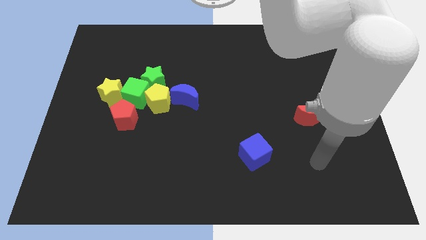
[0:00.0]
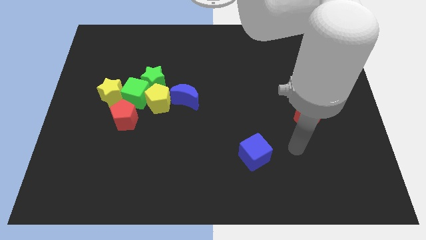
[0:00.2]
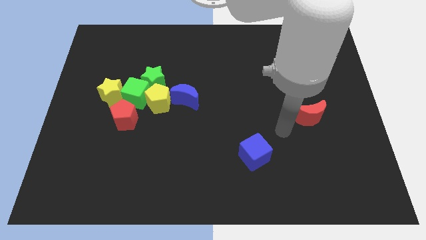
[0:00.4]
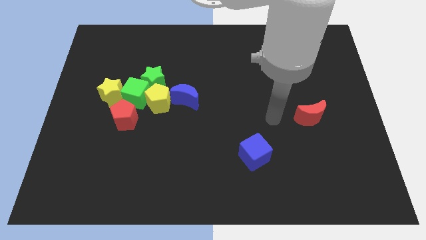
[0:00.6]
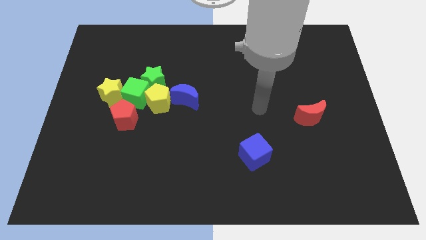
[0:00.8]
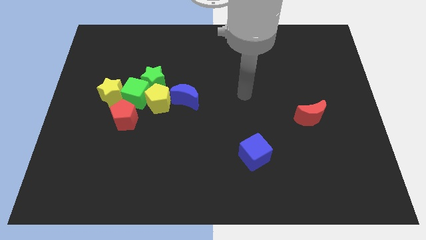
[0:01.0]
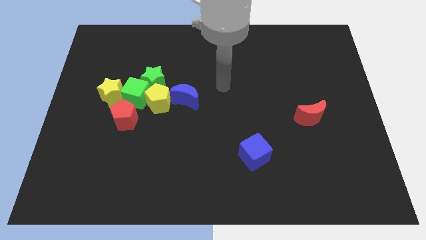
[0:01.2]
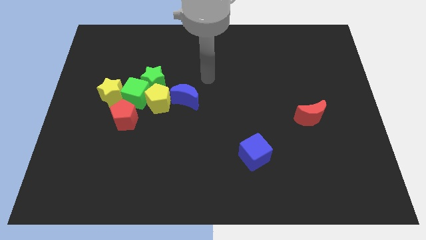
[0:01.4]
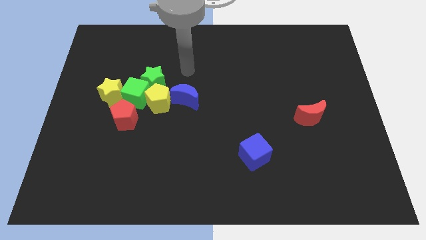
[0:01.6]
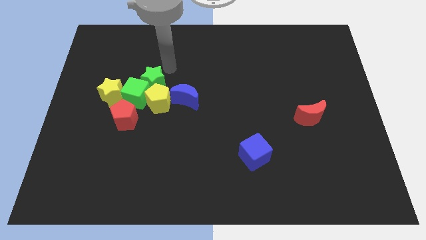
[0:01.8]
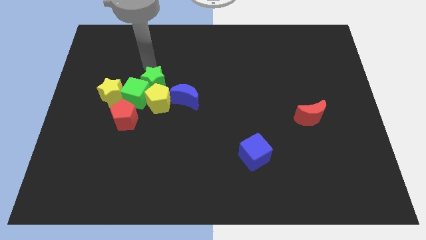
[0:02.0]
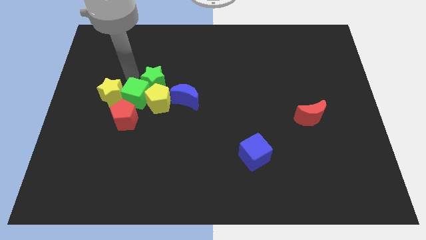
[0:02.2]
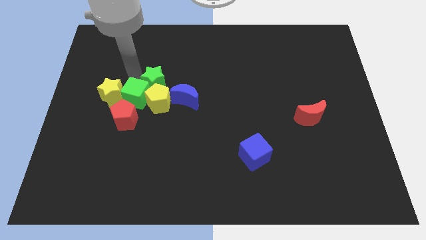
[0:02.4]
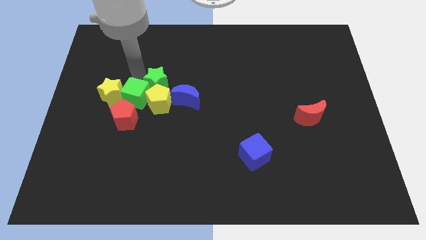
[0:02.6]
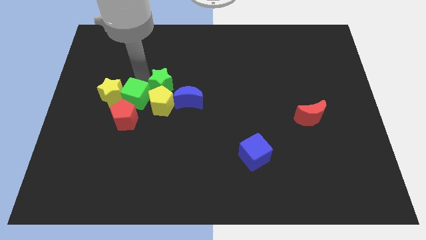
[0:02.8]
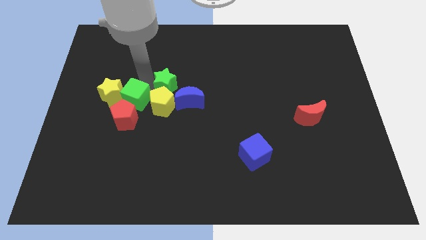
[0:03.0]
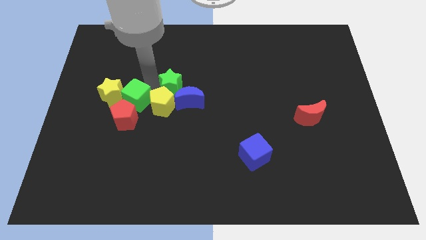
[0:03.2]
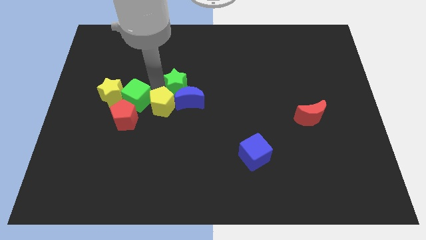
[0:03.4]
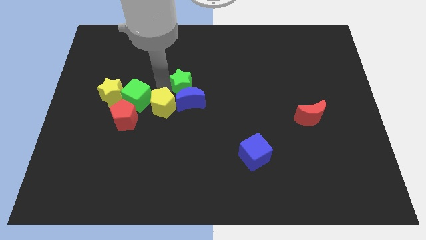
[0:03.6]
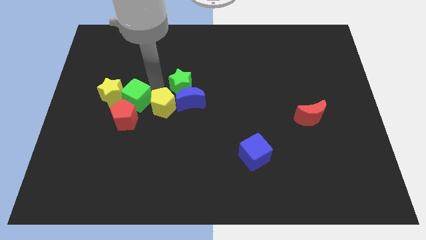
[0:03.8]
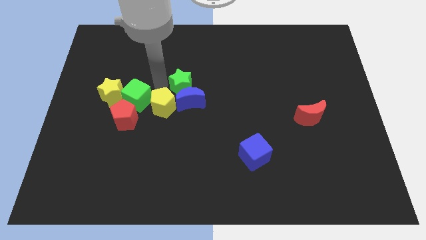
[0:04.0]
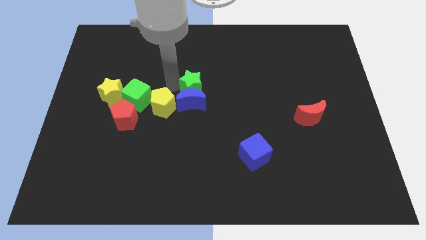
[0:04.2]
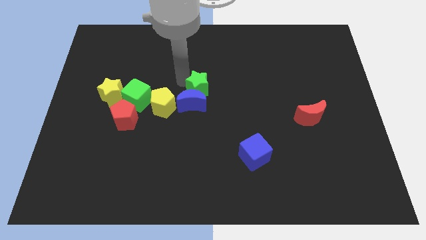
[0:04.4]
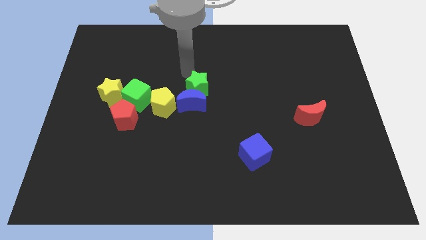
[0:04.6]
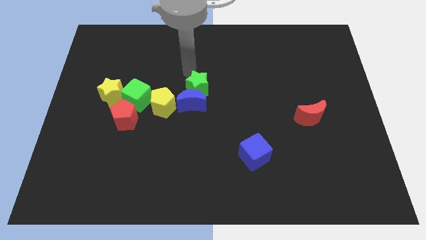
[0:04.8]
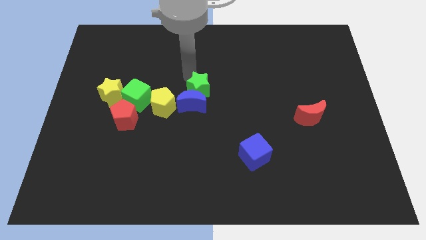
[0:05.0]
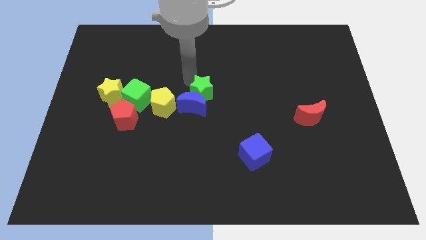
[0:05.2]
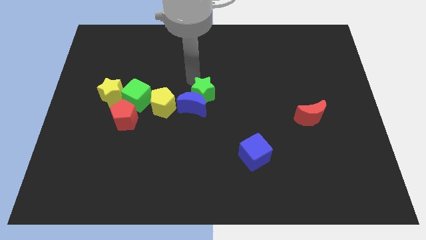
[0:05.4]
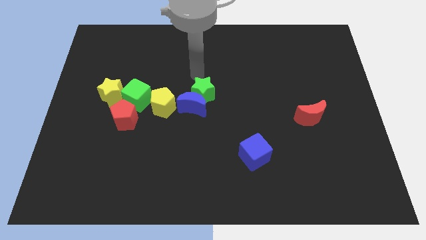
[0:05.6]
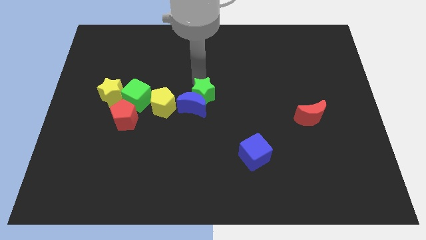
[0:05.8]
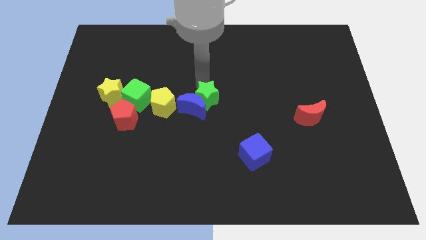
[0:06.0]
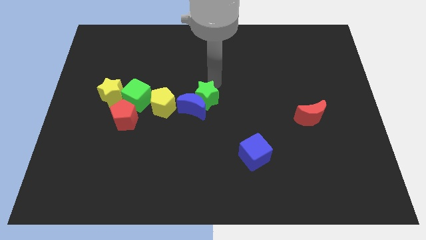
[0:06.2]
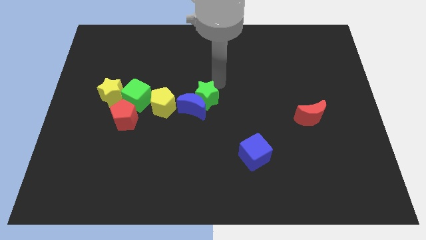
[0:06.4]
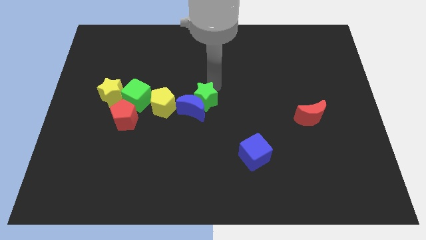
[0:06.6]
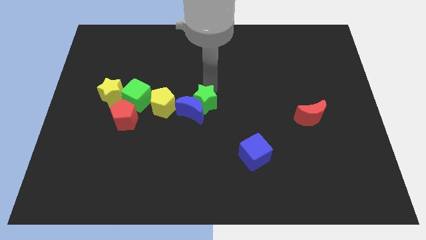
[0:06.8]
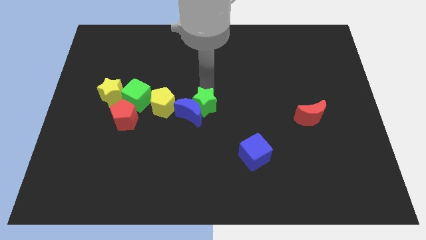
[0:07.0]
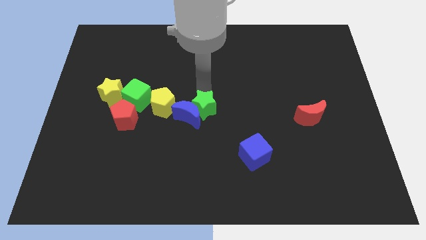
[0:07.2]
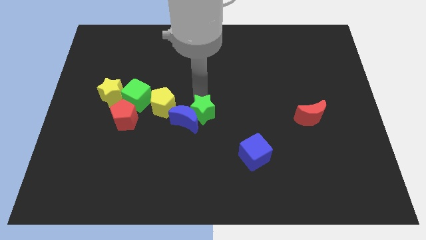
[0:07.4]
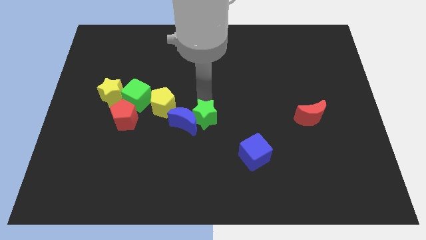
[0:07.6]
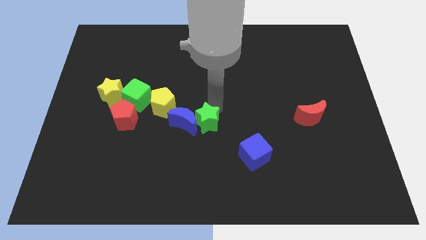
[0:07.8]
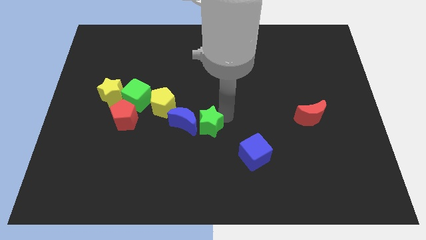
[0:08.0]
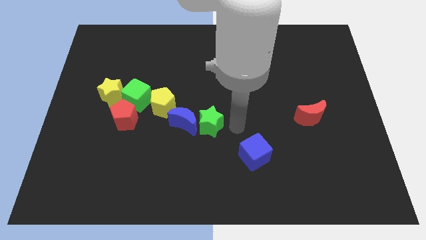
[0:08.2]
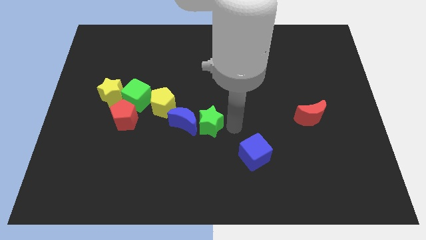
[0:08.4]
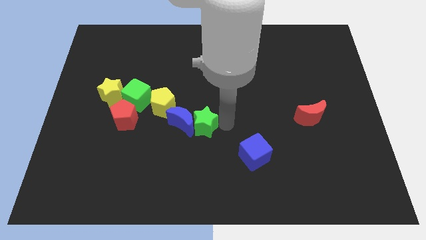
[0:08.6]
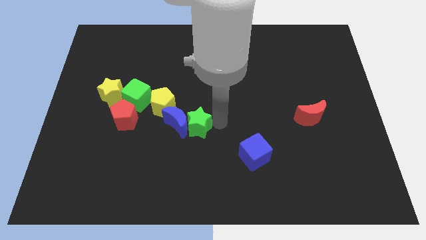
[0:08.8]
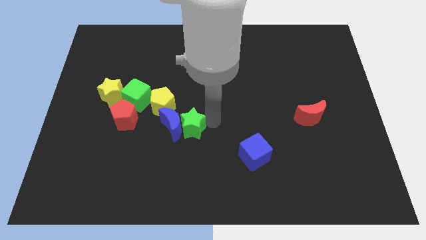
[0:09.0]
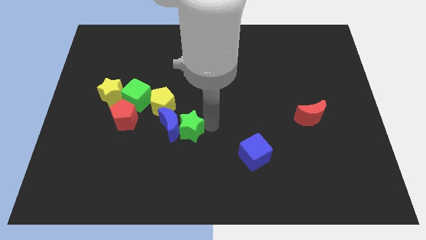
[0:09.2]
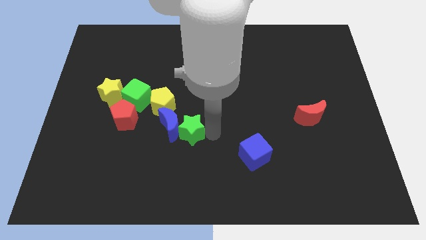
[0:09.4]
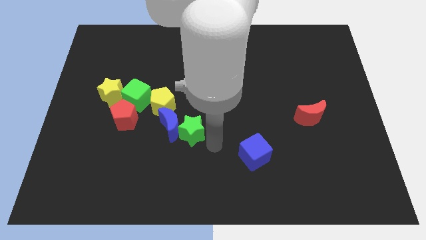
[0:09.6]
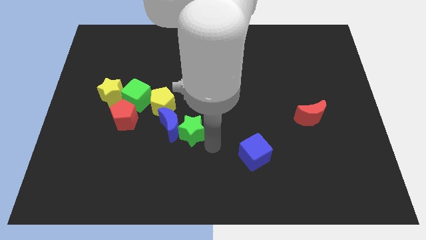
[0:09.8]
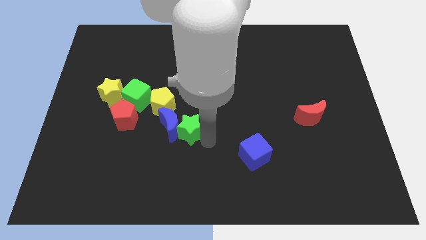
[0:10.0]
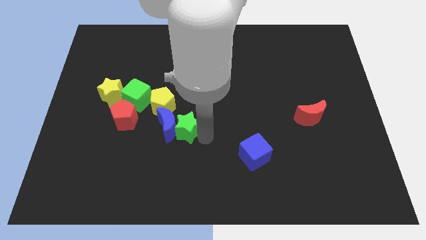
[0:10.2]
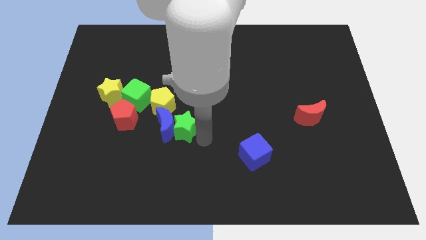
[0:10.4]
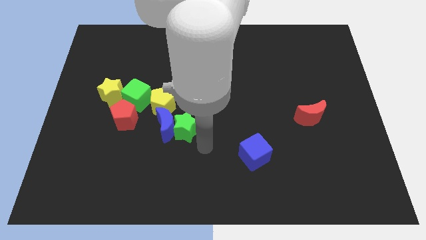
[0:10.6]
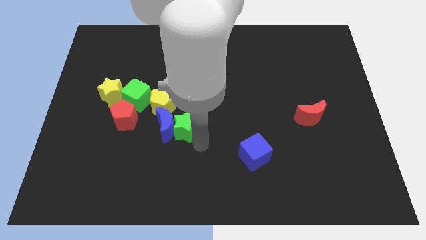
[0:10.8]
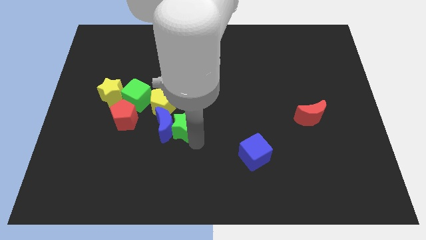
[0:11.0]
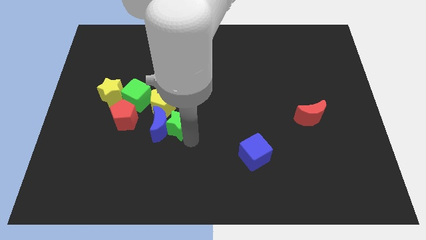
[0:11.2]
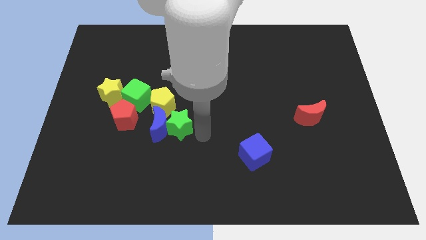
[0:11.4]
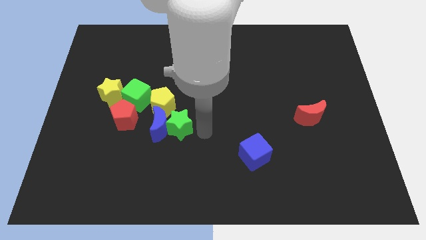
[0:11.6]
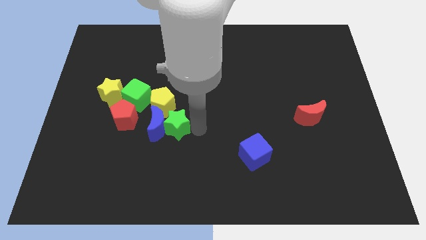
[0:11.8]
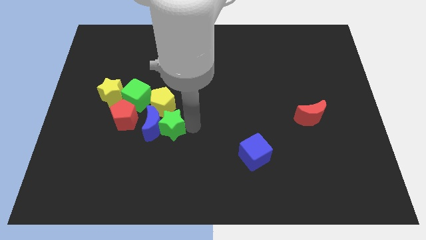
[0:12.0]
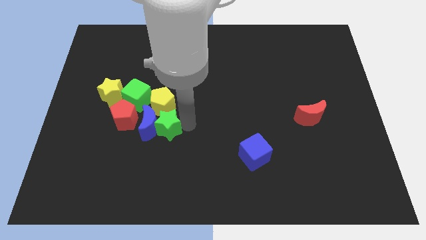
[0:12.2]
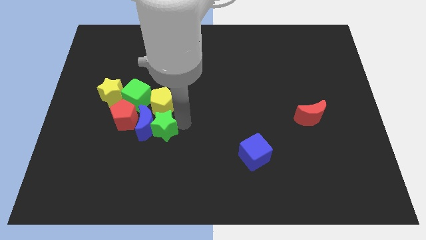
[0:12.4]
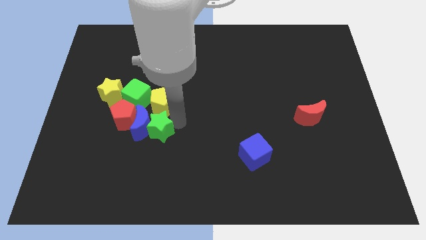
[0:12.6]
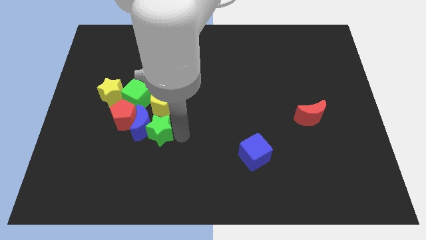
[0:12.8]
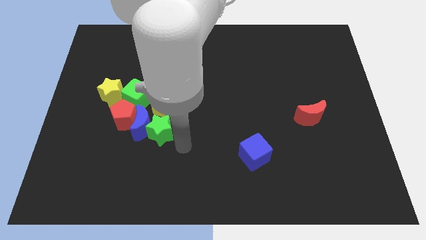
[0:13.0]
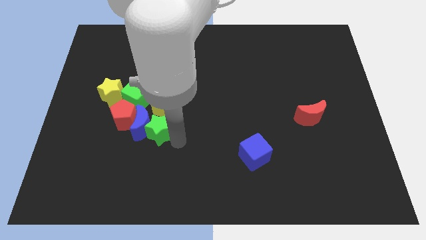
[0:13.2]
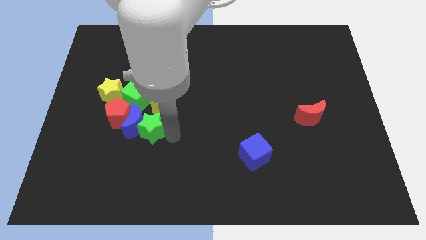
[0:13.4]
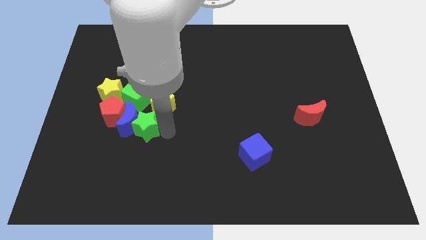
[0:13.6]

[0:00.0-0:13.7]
put the green star to the bottom right side of the yellow star

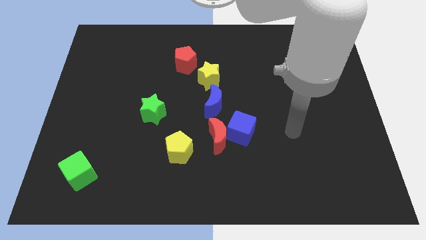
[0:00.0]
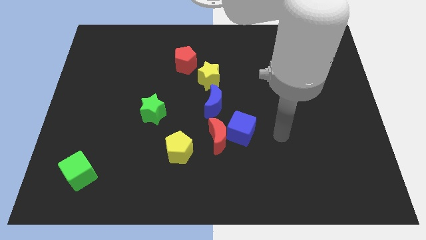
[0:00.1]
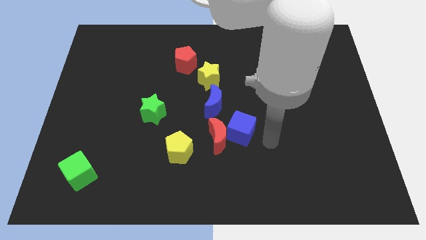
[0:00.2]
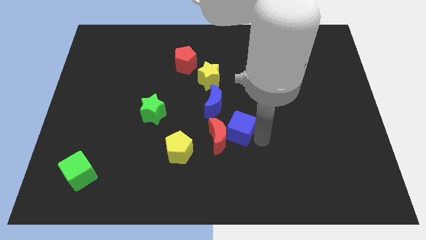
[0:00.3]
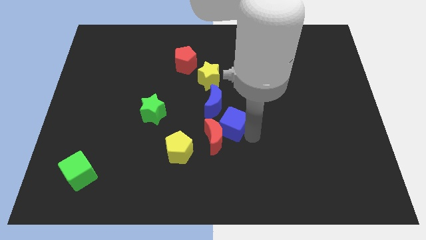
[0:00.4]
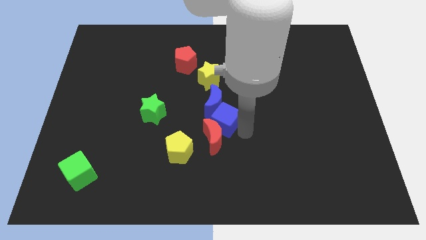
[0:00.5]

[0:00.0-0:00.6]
slide the blue cube diagonally up and to the right of the yellow pentagon
